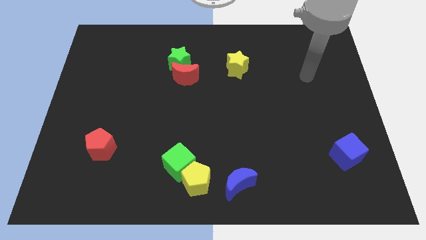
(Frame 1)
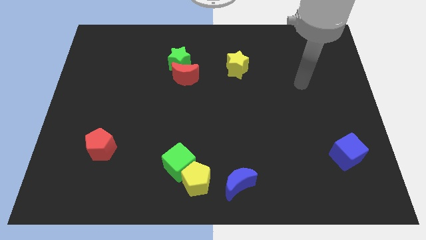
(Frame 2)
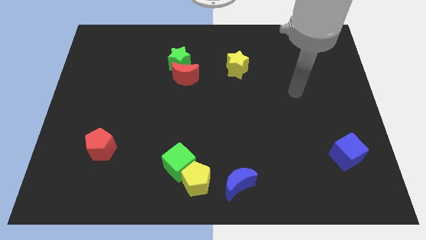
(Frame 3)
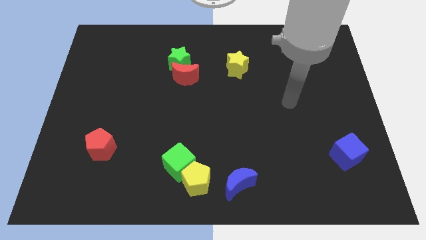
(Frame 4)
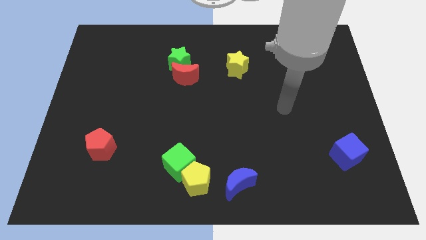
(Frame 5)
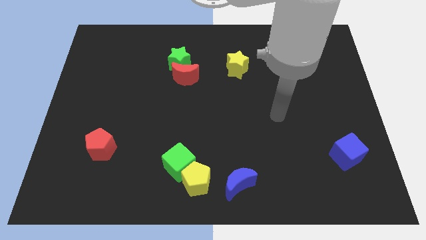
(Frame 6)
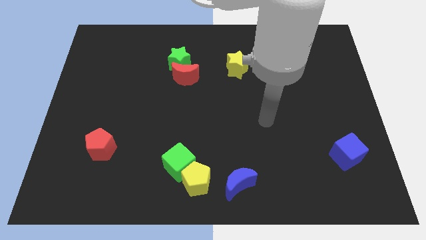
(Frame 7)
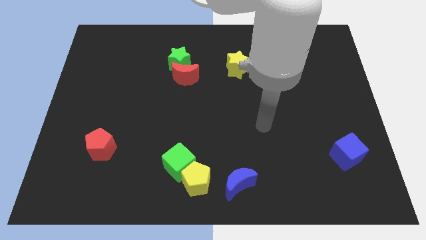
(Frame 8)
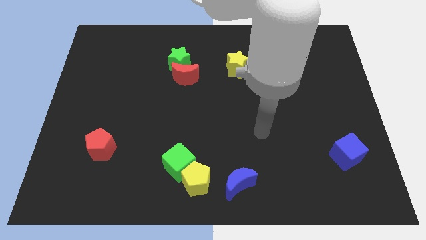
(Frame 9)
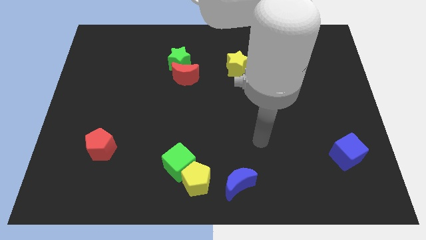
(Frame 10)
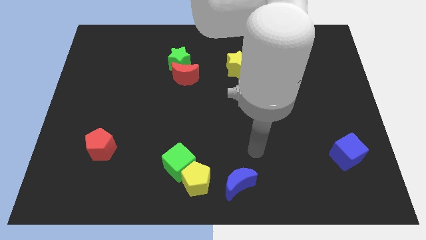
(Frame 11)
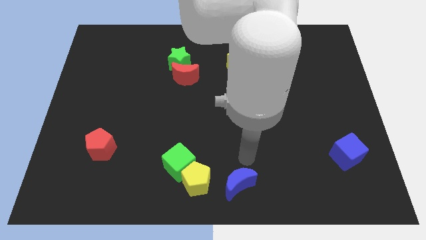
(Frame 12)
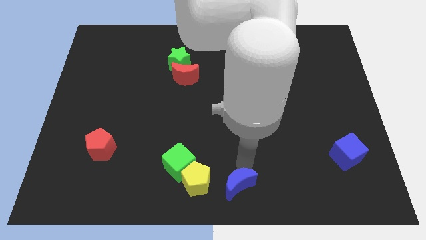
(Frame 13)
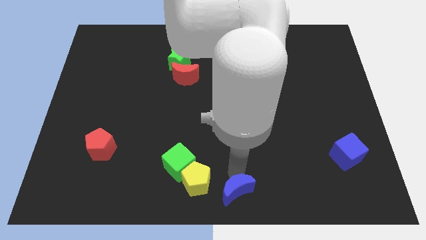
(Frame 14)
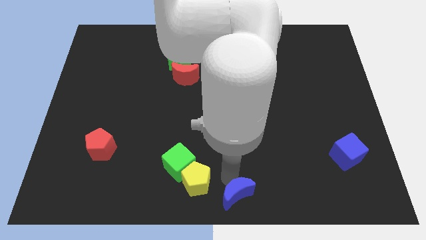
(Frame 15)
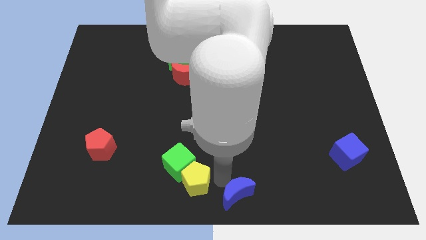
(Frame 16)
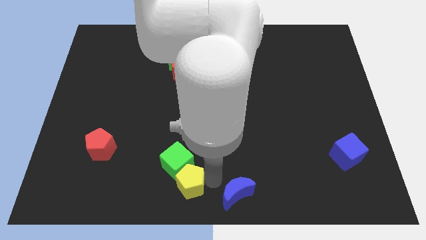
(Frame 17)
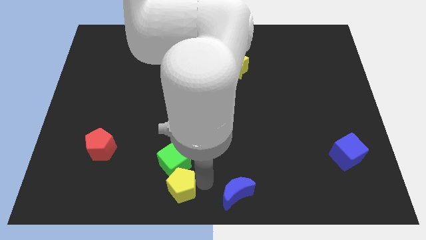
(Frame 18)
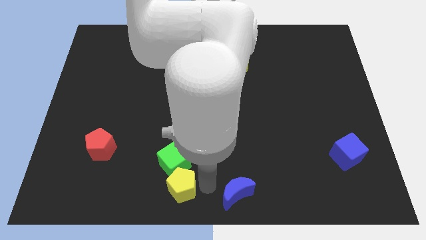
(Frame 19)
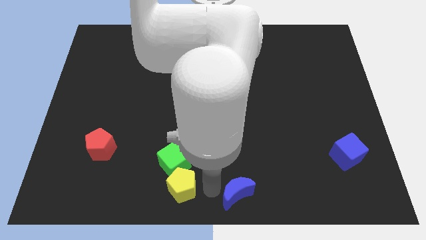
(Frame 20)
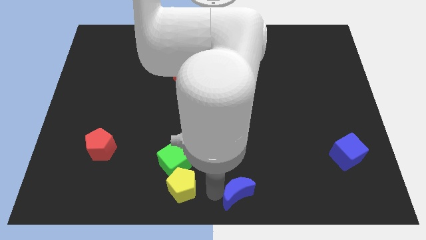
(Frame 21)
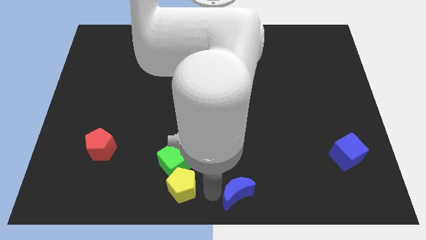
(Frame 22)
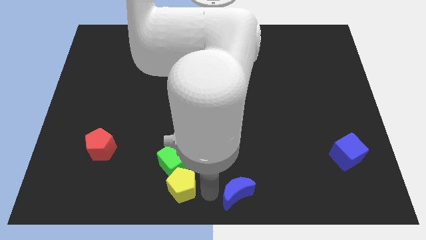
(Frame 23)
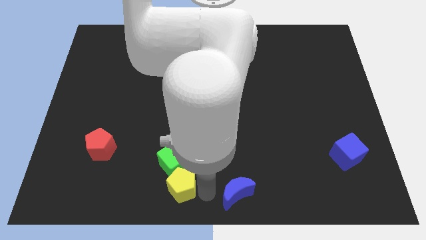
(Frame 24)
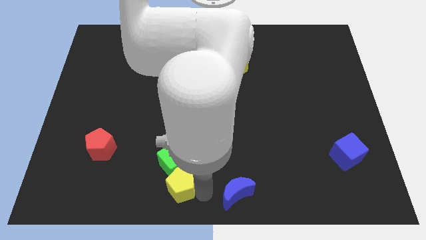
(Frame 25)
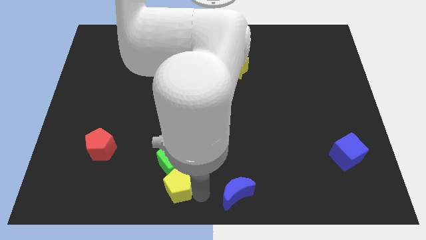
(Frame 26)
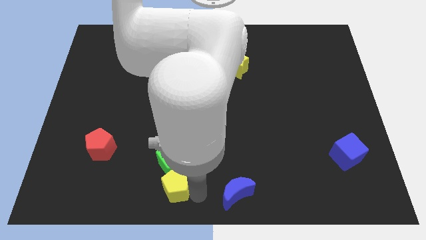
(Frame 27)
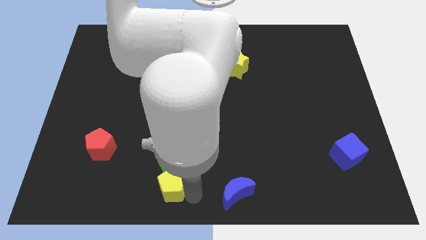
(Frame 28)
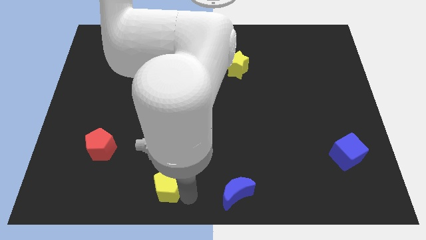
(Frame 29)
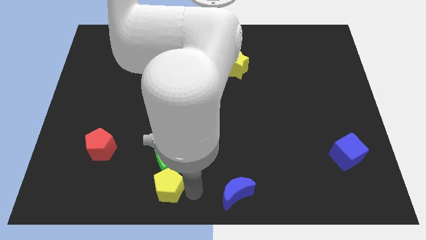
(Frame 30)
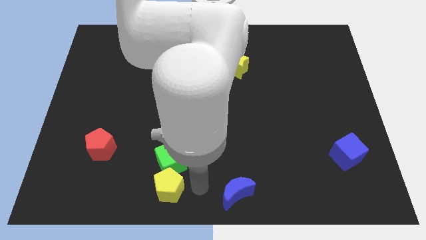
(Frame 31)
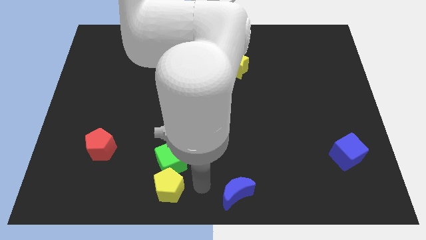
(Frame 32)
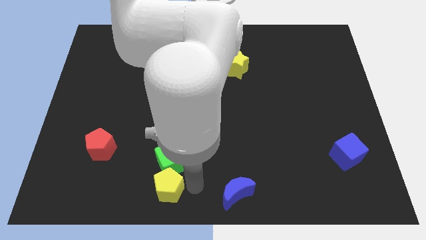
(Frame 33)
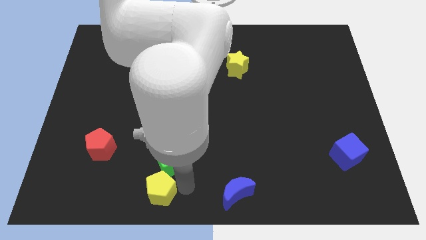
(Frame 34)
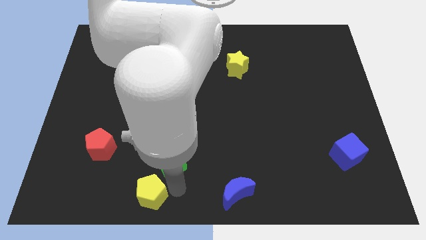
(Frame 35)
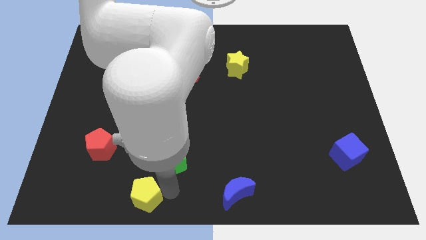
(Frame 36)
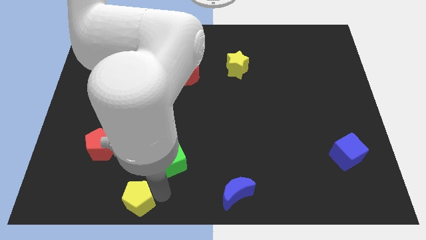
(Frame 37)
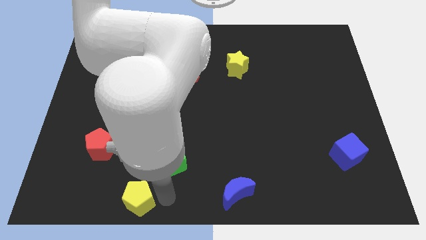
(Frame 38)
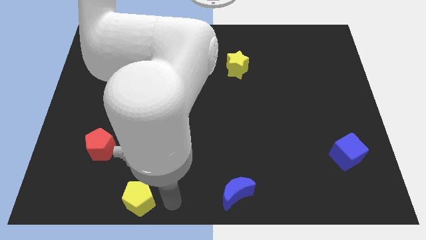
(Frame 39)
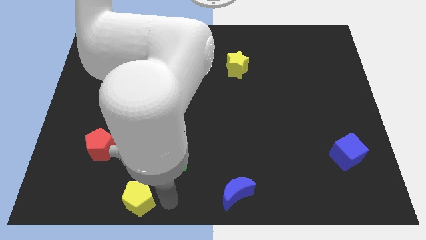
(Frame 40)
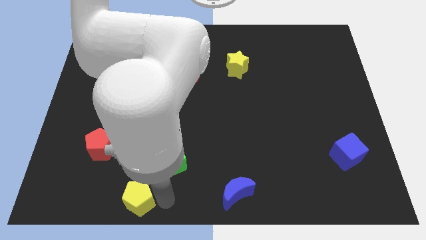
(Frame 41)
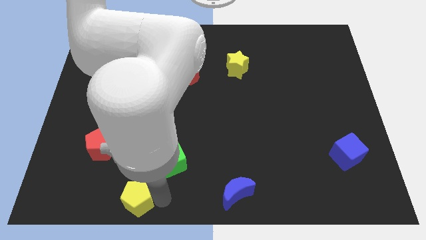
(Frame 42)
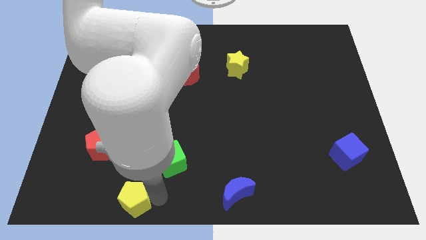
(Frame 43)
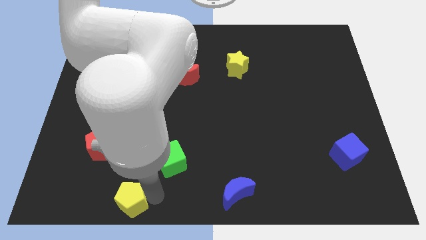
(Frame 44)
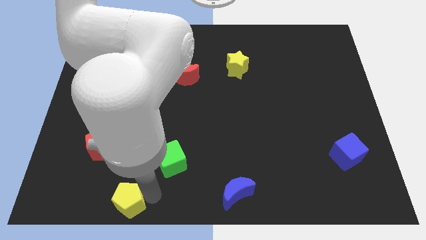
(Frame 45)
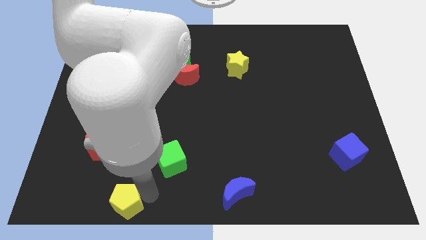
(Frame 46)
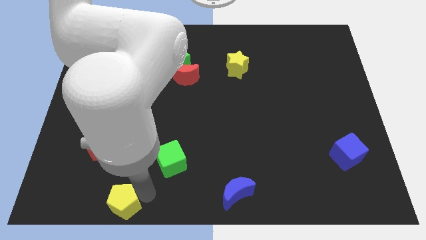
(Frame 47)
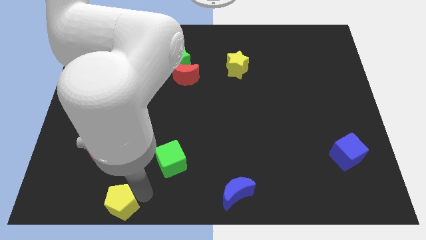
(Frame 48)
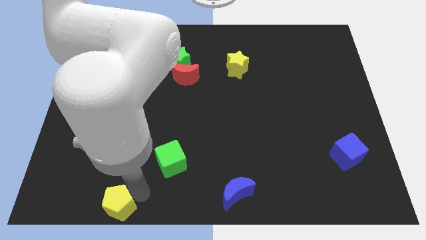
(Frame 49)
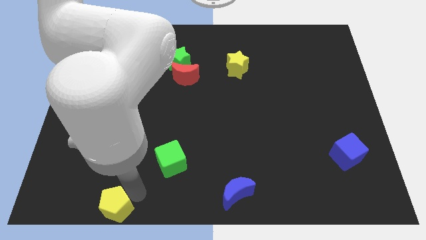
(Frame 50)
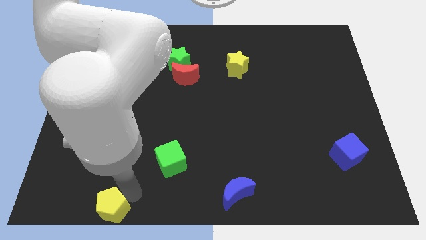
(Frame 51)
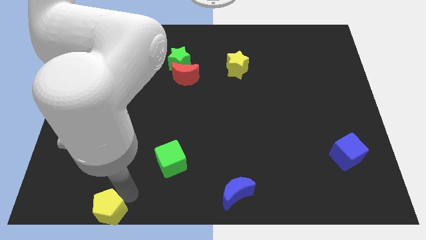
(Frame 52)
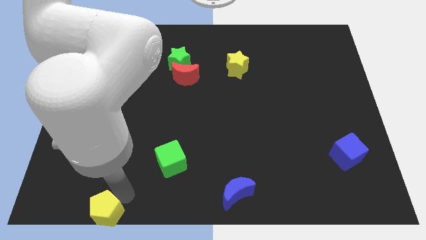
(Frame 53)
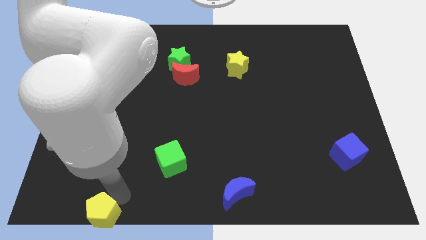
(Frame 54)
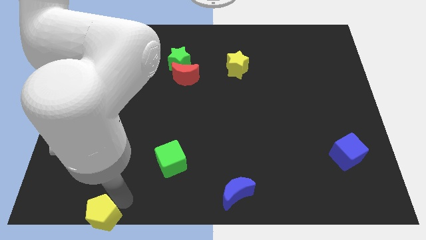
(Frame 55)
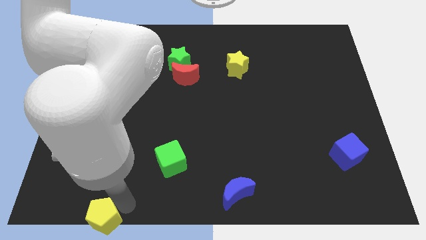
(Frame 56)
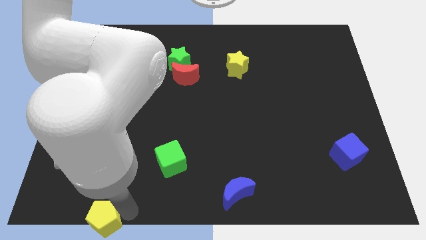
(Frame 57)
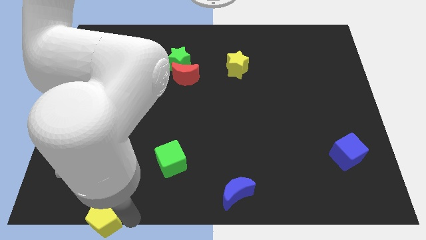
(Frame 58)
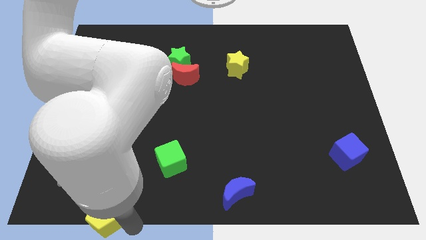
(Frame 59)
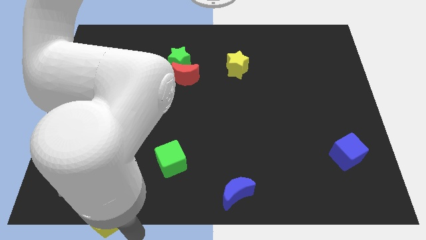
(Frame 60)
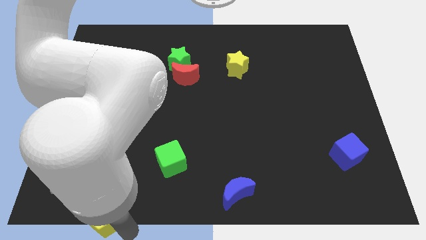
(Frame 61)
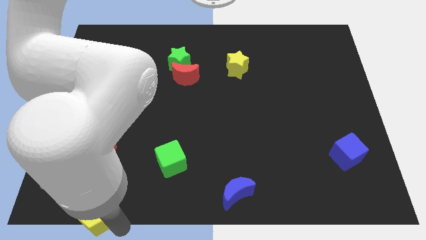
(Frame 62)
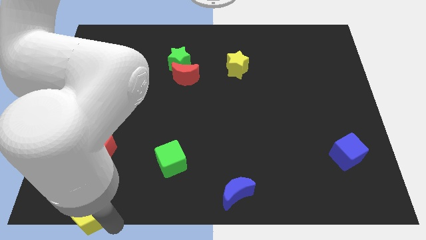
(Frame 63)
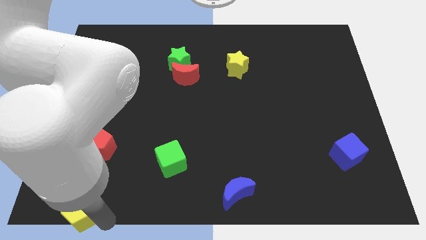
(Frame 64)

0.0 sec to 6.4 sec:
push the yellow pentagon to the bottom left corner
